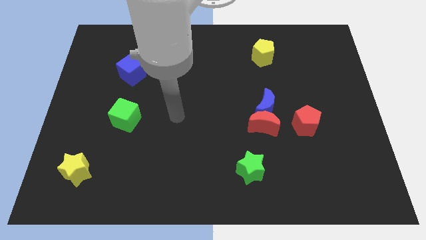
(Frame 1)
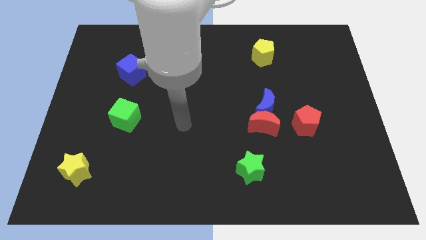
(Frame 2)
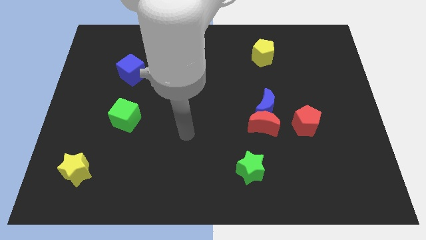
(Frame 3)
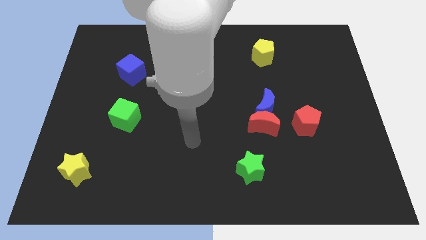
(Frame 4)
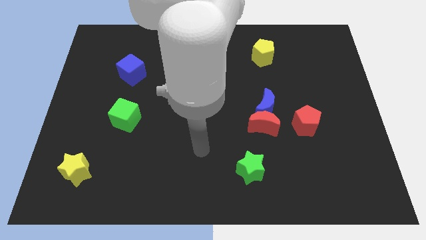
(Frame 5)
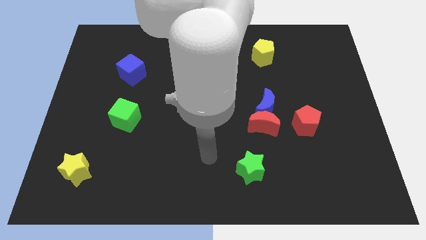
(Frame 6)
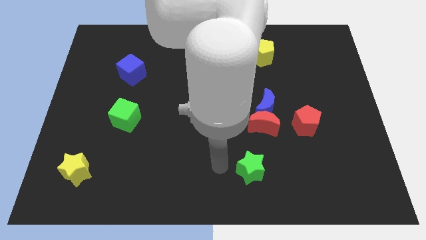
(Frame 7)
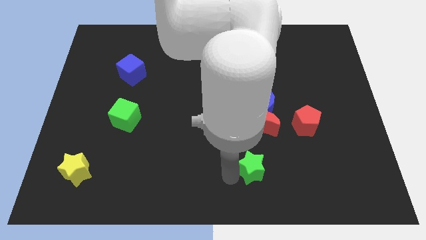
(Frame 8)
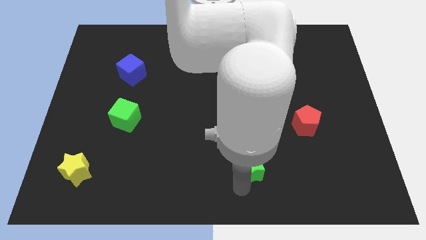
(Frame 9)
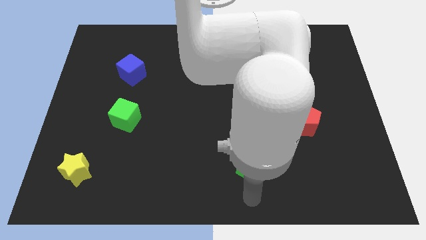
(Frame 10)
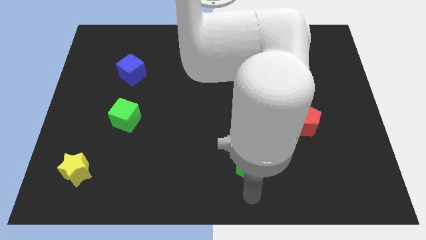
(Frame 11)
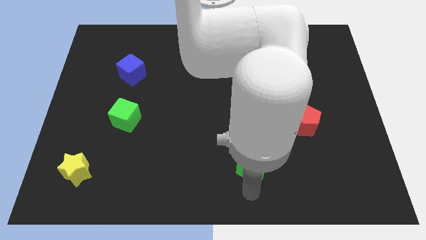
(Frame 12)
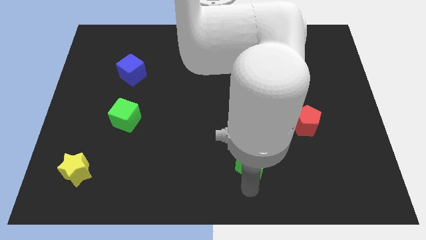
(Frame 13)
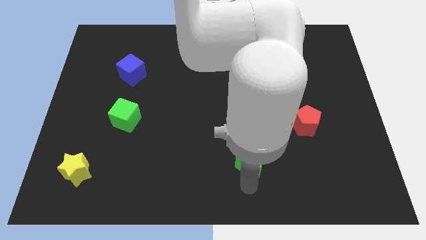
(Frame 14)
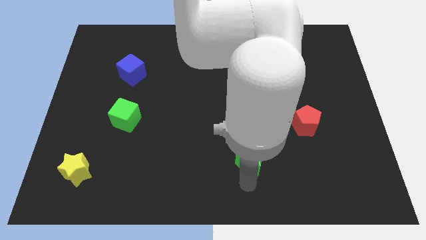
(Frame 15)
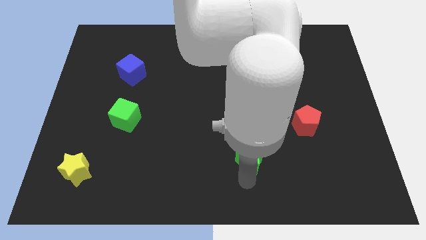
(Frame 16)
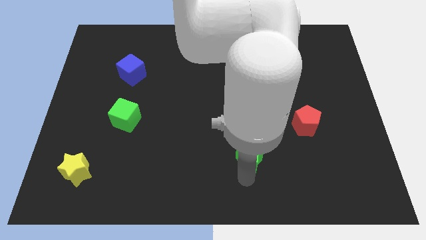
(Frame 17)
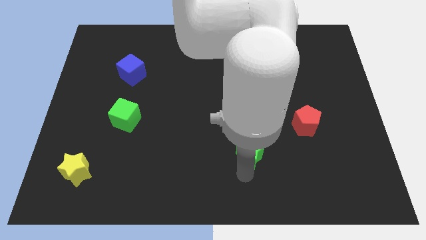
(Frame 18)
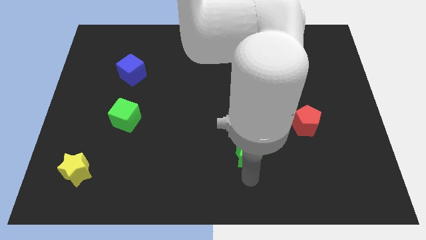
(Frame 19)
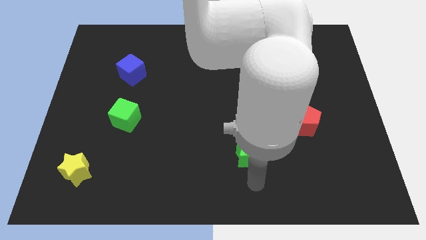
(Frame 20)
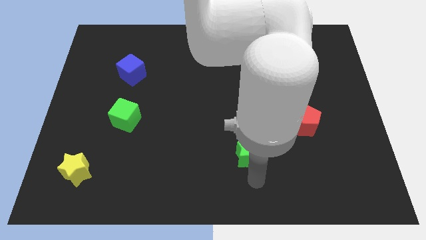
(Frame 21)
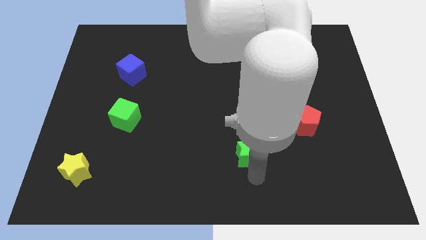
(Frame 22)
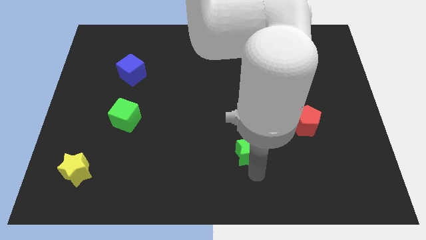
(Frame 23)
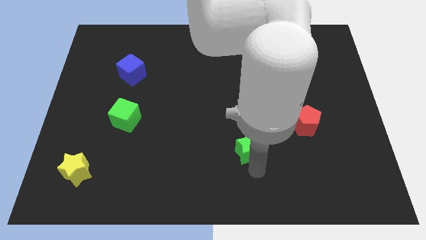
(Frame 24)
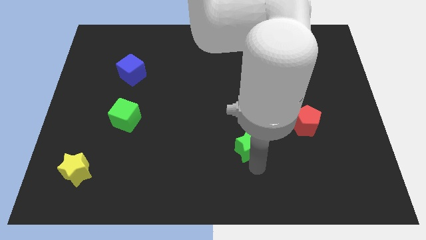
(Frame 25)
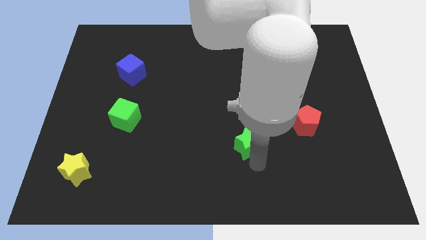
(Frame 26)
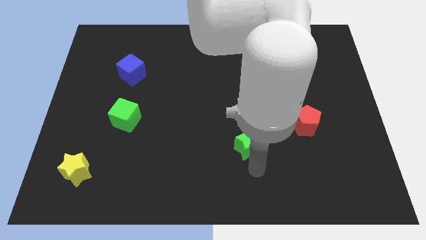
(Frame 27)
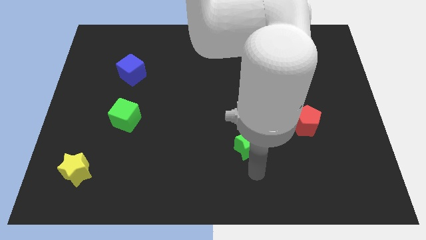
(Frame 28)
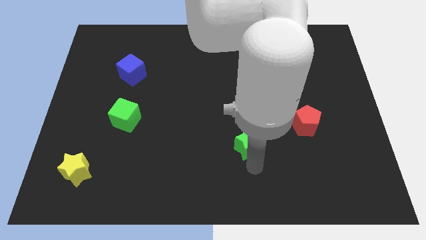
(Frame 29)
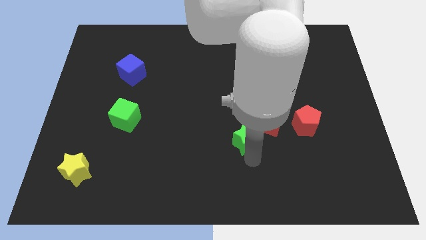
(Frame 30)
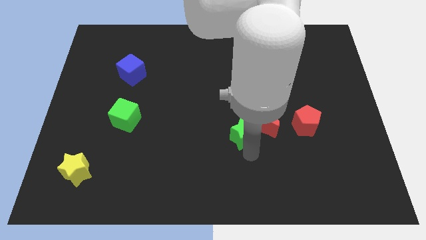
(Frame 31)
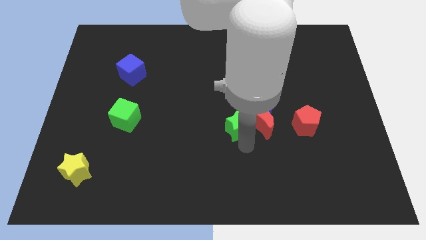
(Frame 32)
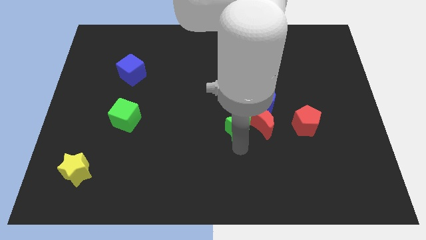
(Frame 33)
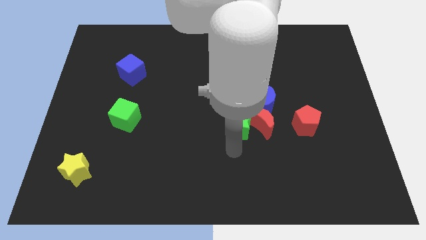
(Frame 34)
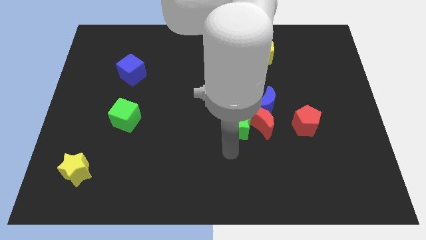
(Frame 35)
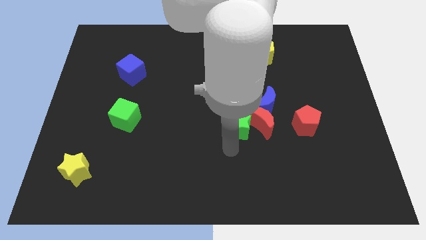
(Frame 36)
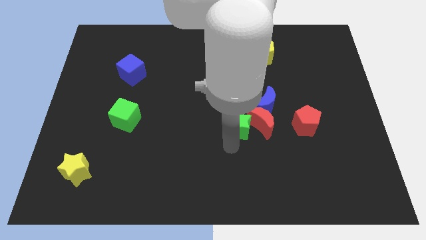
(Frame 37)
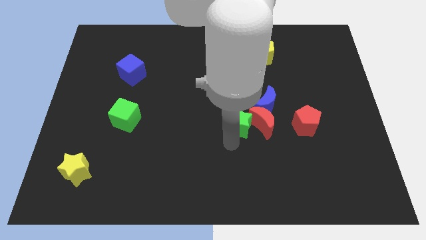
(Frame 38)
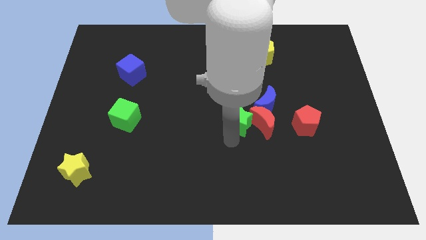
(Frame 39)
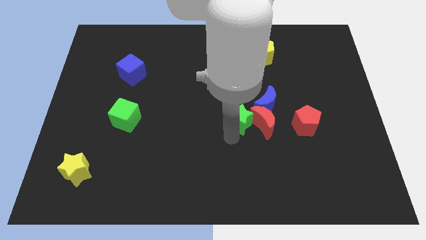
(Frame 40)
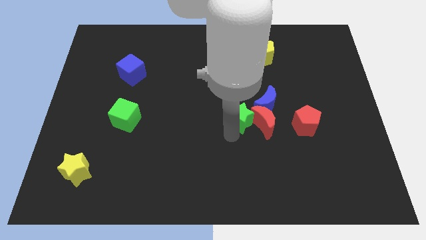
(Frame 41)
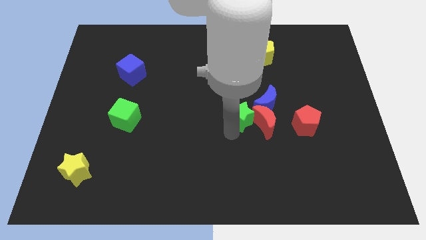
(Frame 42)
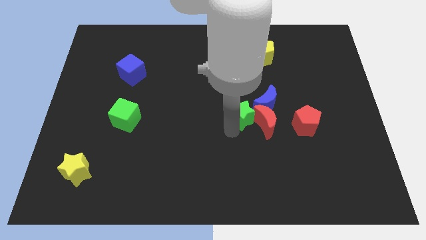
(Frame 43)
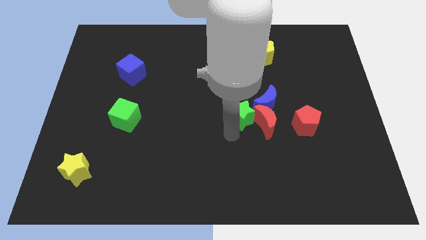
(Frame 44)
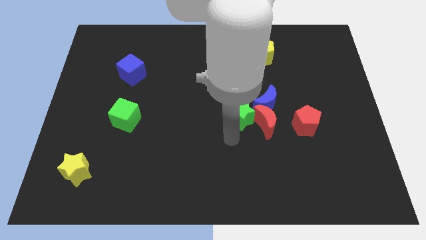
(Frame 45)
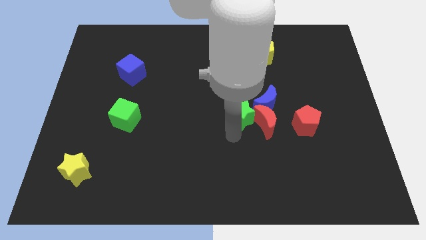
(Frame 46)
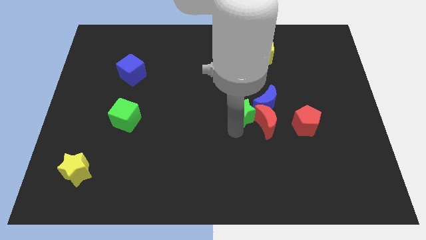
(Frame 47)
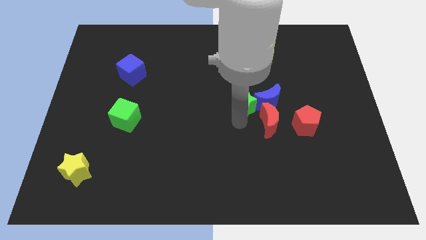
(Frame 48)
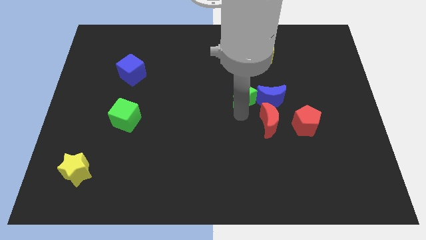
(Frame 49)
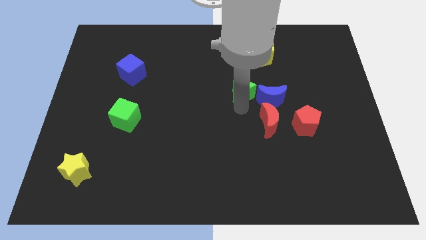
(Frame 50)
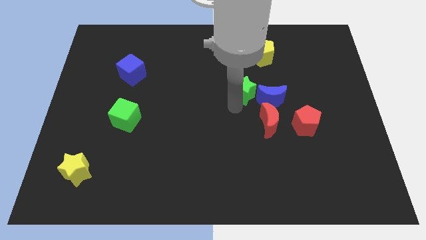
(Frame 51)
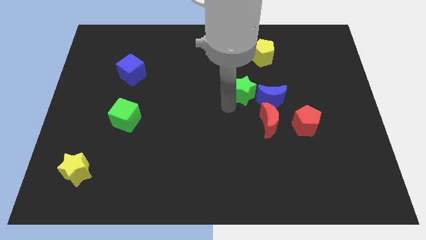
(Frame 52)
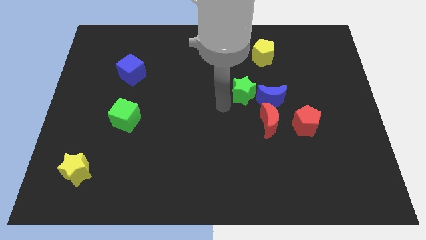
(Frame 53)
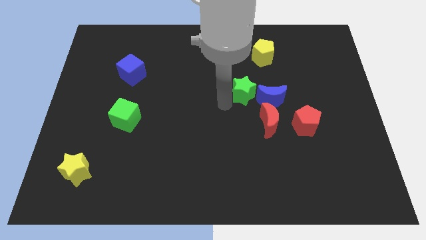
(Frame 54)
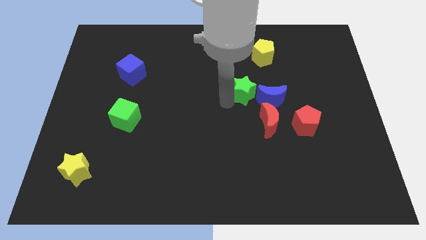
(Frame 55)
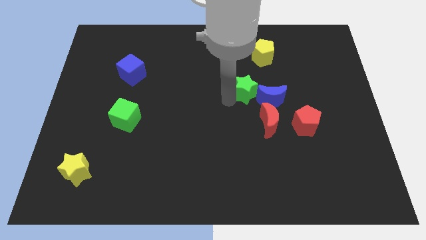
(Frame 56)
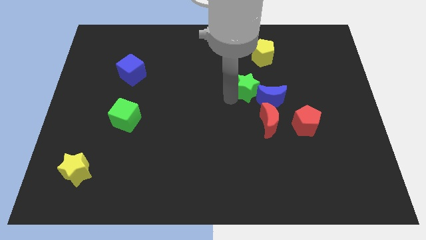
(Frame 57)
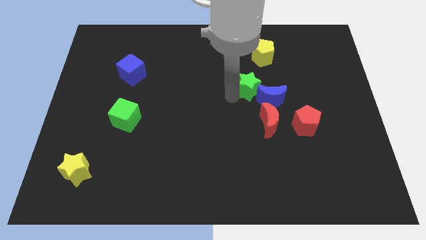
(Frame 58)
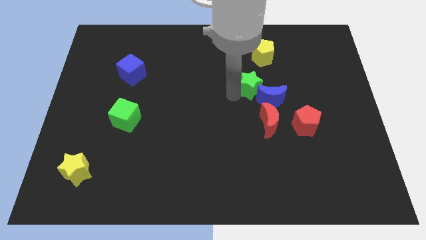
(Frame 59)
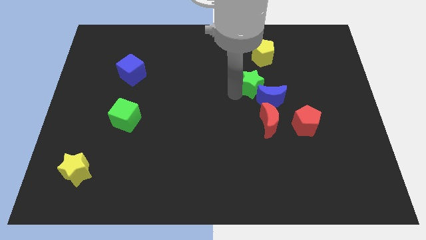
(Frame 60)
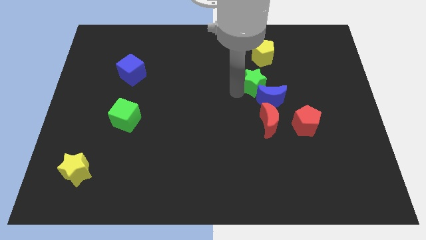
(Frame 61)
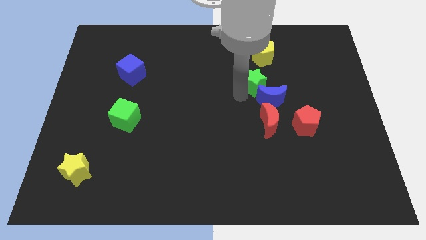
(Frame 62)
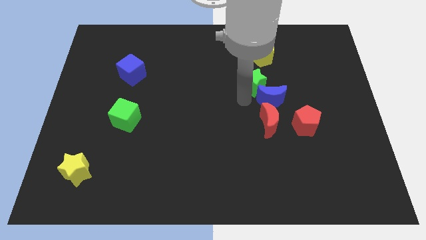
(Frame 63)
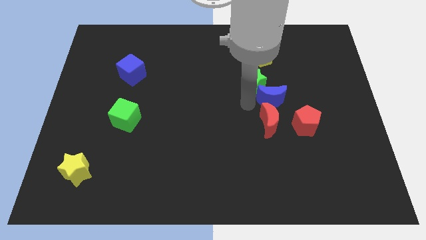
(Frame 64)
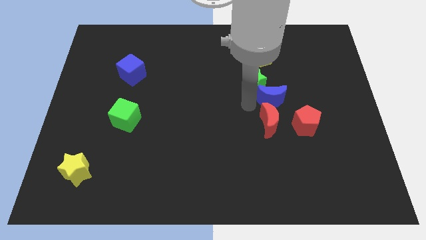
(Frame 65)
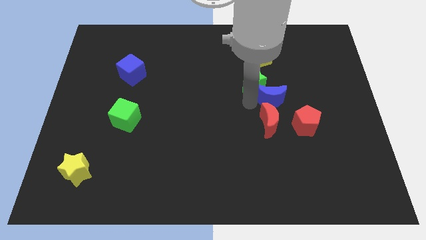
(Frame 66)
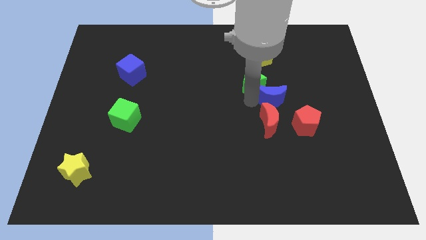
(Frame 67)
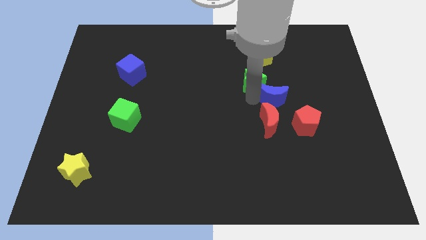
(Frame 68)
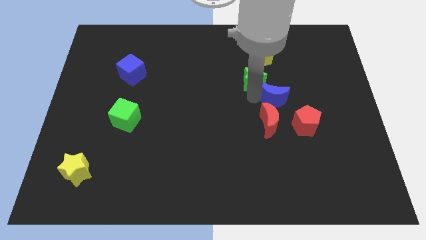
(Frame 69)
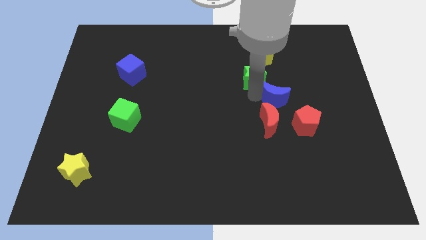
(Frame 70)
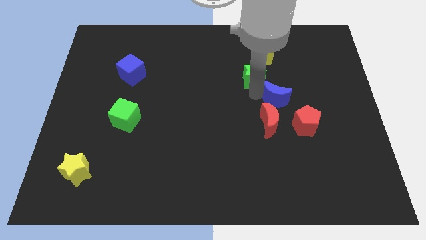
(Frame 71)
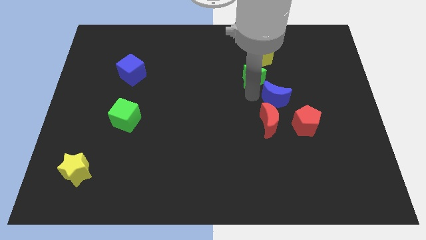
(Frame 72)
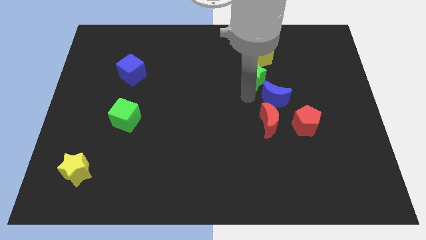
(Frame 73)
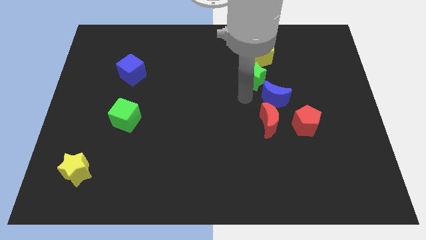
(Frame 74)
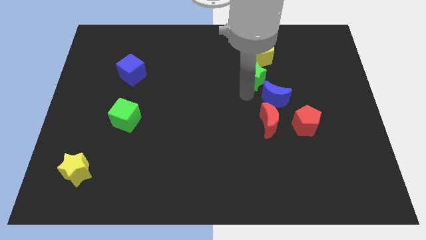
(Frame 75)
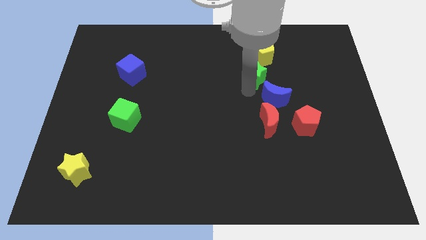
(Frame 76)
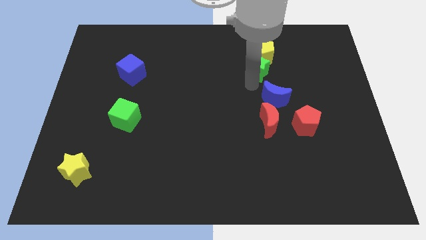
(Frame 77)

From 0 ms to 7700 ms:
slide the green star to the yellow pentagon
